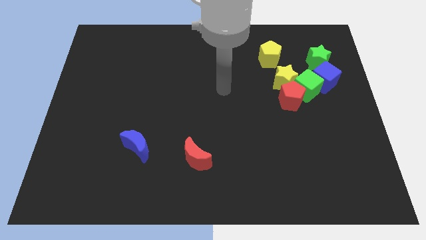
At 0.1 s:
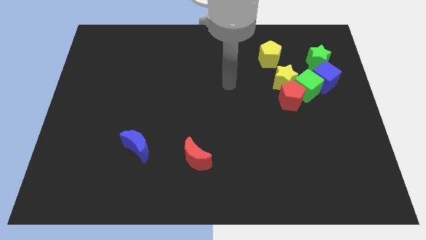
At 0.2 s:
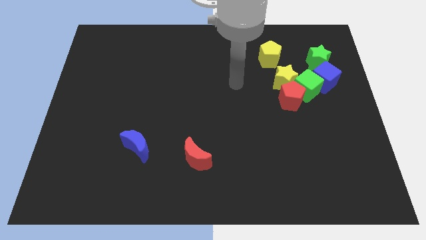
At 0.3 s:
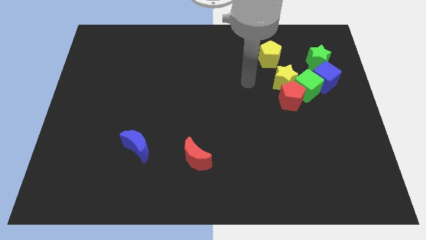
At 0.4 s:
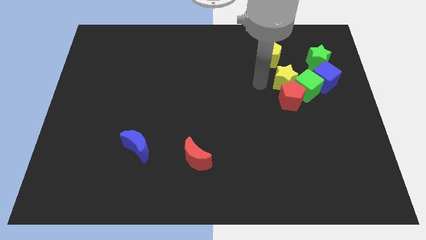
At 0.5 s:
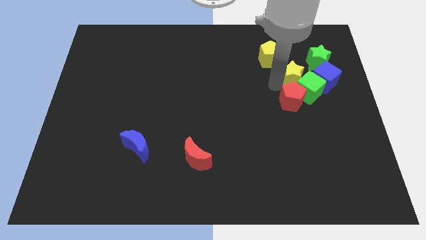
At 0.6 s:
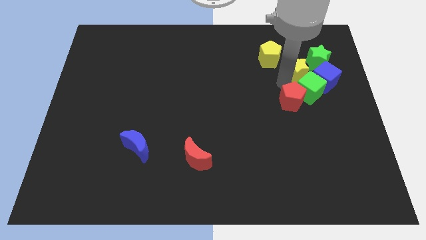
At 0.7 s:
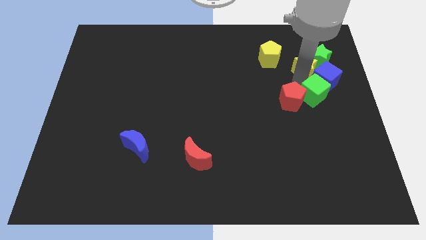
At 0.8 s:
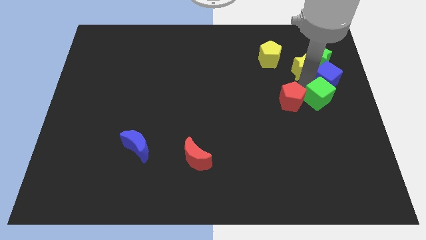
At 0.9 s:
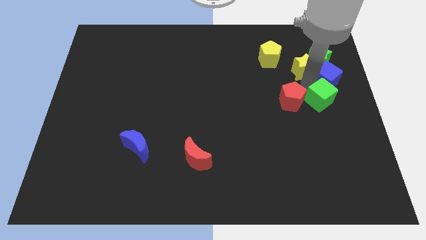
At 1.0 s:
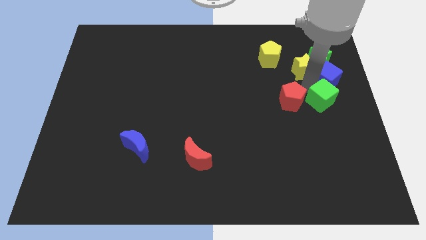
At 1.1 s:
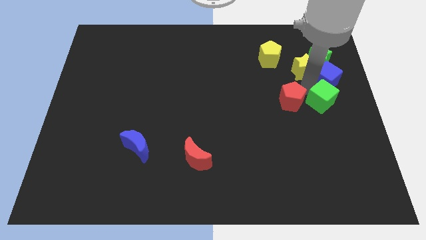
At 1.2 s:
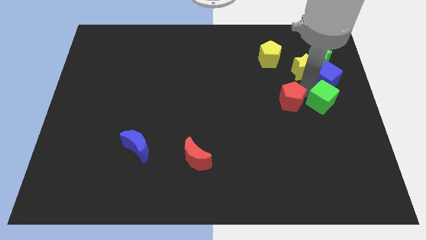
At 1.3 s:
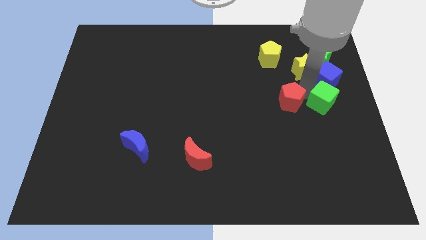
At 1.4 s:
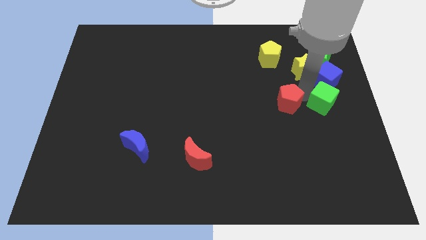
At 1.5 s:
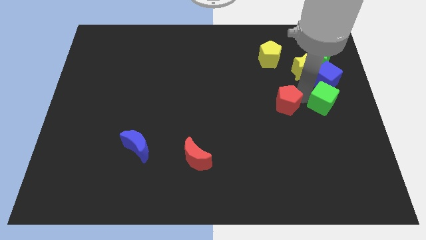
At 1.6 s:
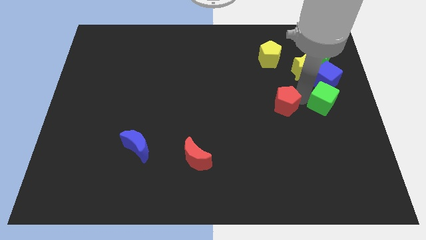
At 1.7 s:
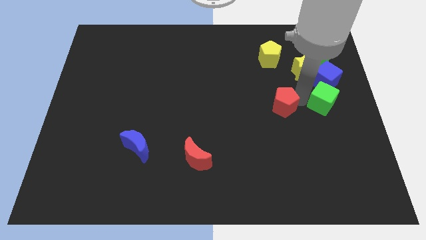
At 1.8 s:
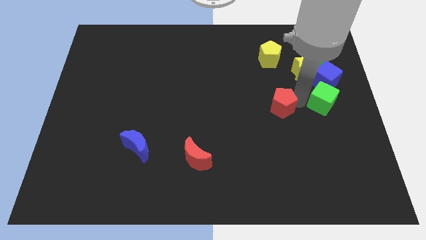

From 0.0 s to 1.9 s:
separate the red pentagon from the green cube and yellow star

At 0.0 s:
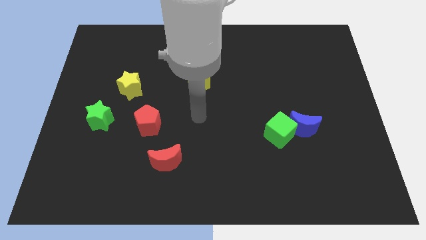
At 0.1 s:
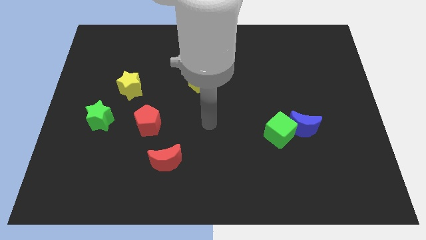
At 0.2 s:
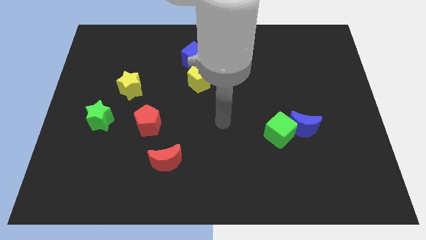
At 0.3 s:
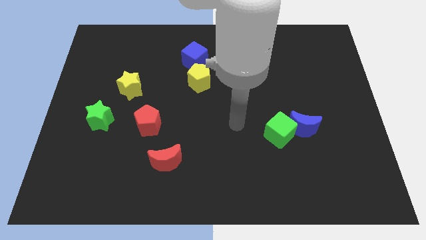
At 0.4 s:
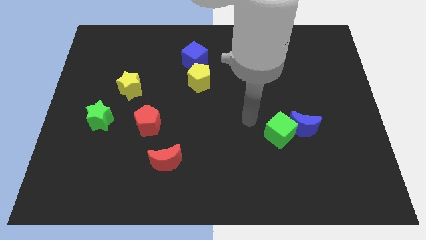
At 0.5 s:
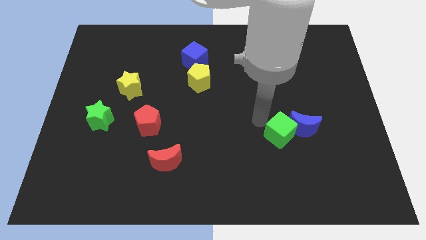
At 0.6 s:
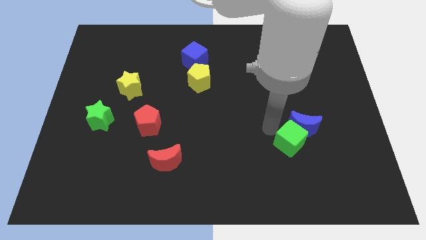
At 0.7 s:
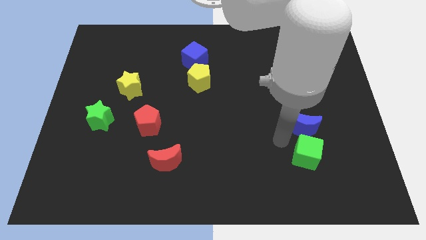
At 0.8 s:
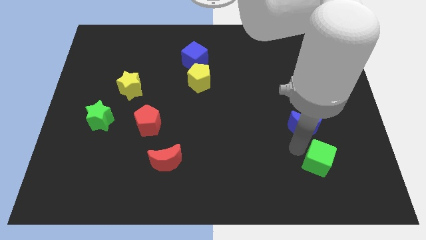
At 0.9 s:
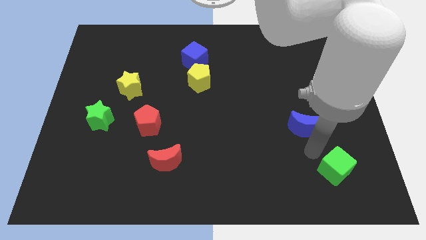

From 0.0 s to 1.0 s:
pull the blue moon apart from the green cube

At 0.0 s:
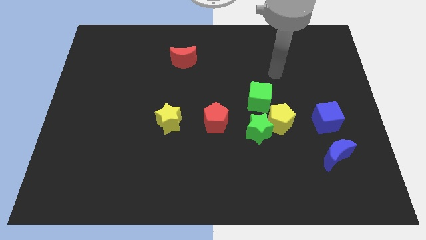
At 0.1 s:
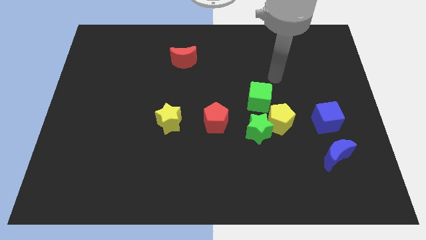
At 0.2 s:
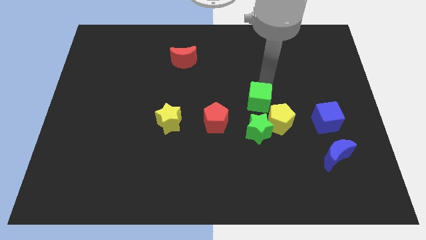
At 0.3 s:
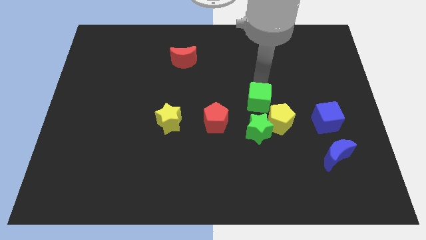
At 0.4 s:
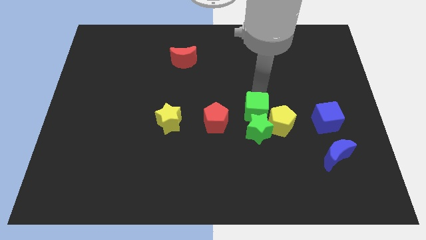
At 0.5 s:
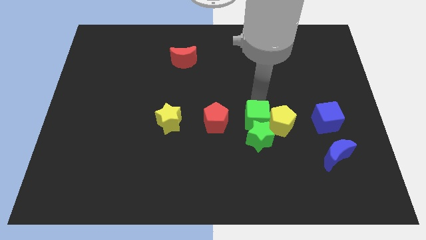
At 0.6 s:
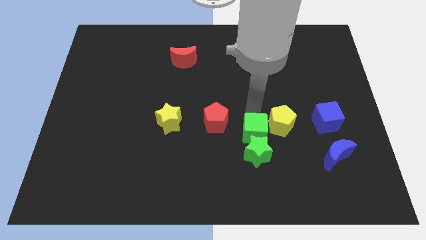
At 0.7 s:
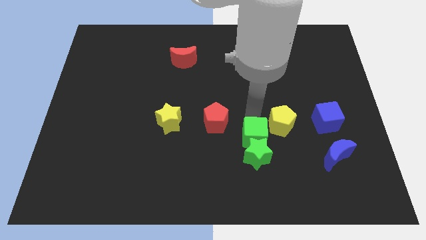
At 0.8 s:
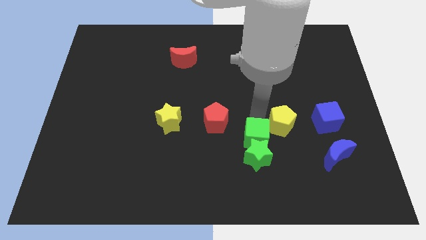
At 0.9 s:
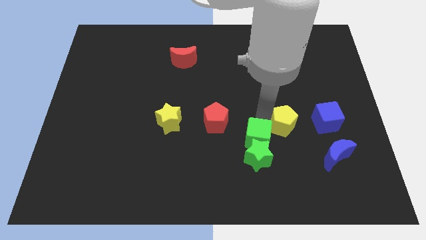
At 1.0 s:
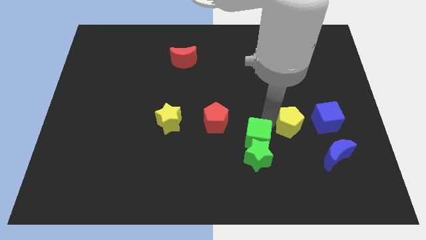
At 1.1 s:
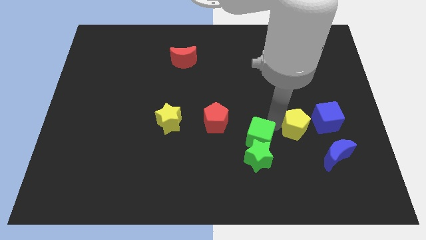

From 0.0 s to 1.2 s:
pull the yellow pentagon apart from the green star and green cube

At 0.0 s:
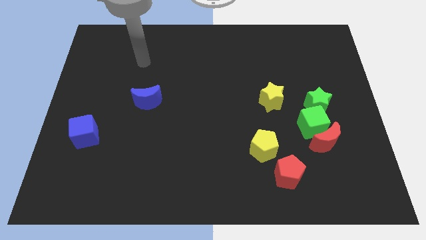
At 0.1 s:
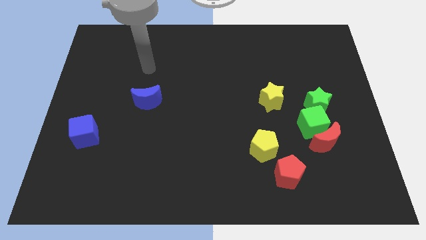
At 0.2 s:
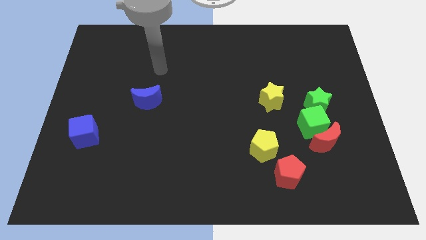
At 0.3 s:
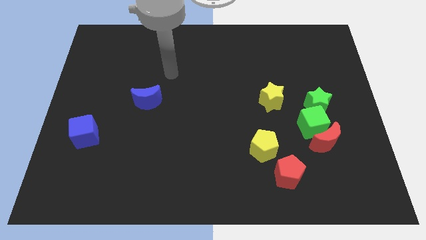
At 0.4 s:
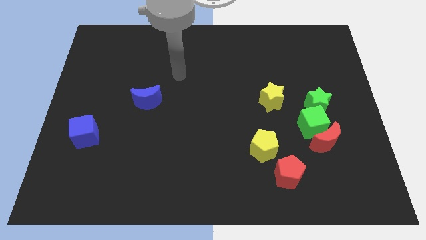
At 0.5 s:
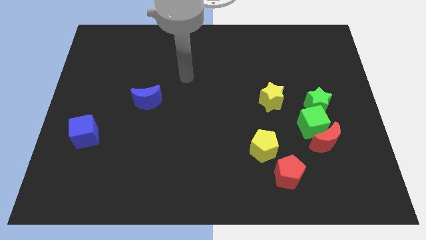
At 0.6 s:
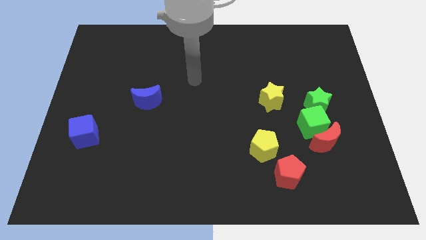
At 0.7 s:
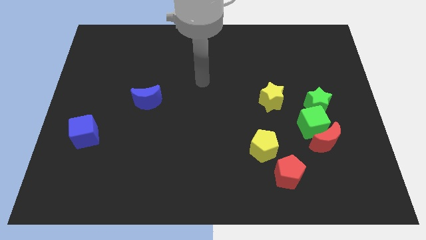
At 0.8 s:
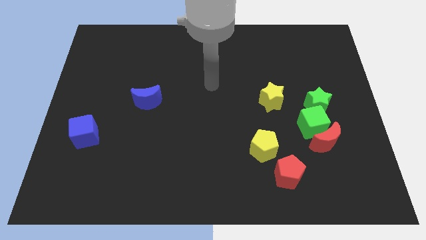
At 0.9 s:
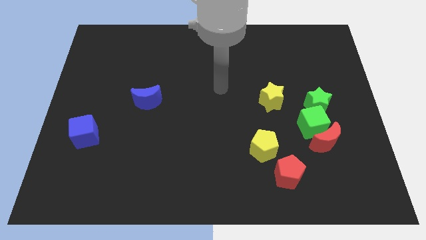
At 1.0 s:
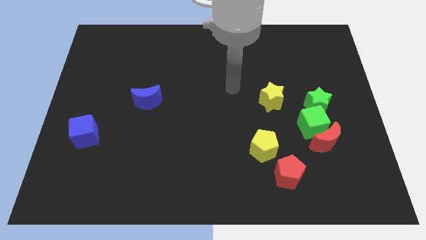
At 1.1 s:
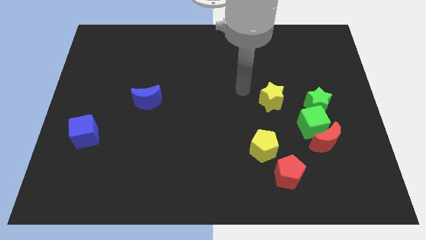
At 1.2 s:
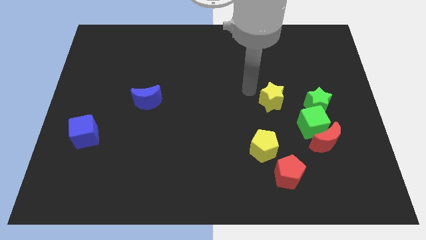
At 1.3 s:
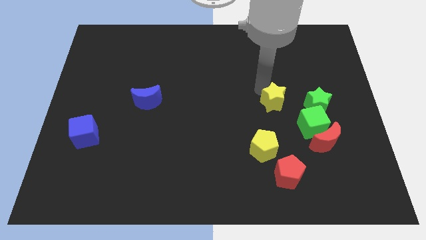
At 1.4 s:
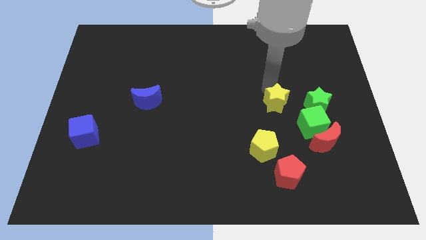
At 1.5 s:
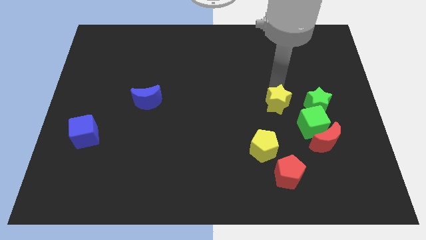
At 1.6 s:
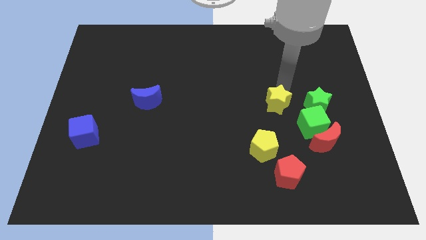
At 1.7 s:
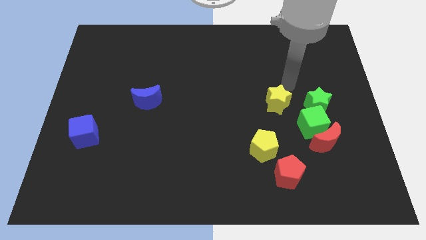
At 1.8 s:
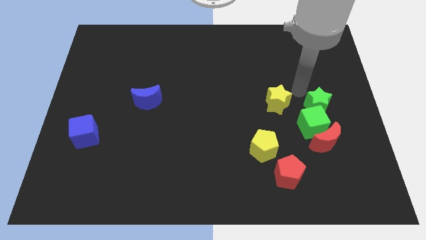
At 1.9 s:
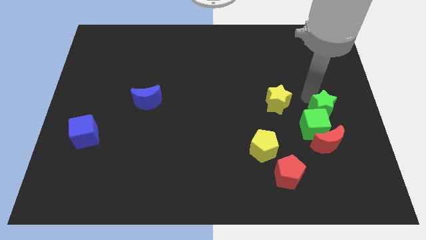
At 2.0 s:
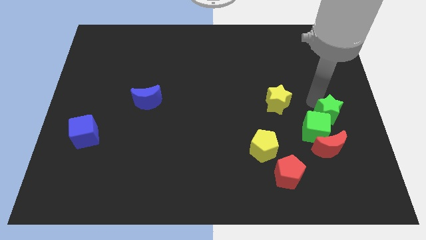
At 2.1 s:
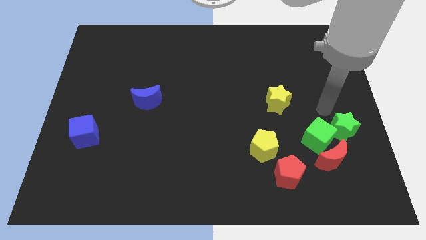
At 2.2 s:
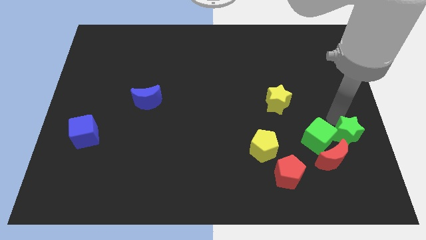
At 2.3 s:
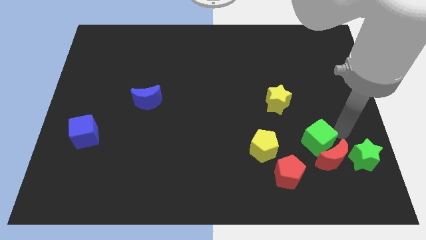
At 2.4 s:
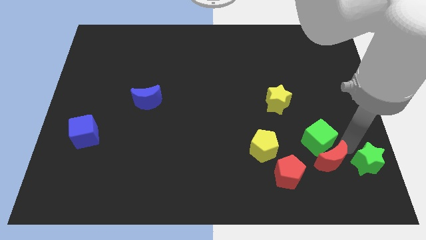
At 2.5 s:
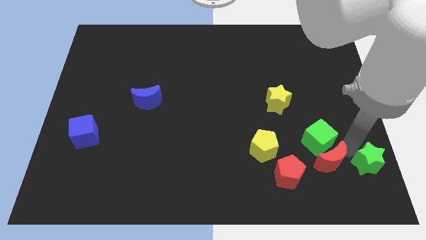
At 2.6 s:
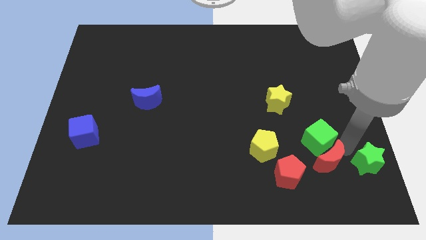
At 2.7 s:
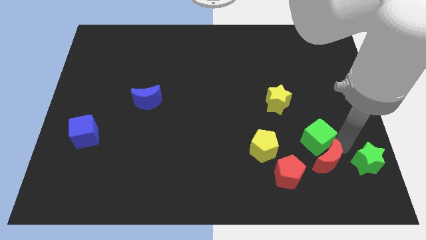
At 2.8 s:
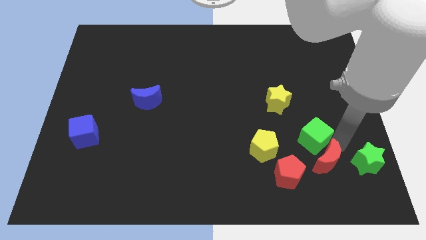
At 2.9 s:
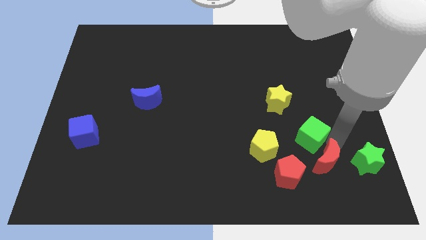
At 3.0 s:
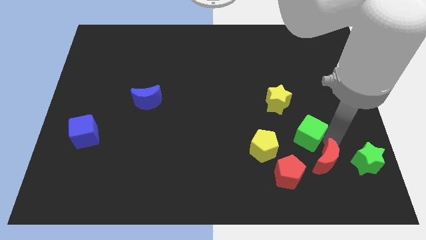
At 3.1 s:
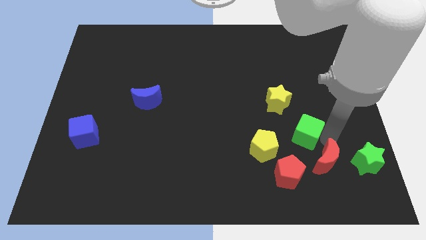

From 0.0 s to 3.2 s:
move the green cube away from the red moon and green star

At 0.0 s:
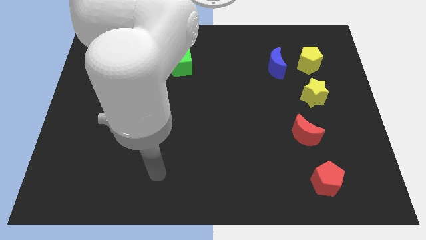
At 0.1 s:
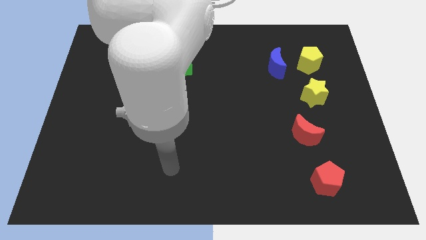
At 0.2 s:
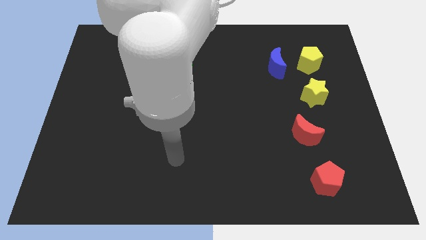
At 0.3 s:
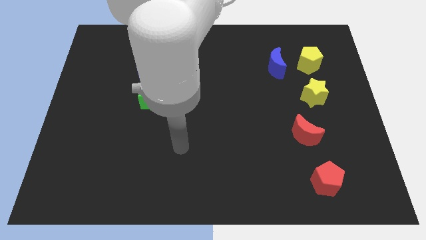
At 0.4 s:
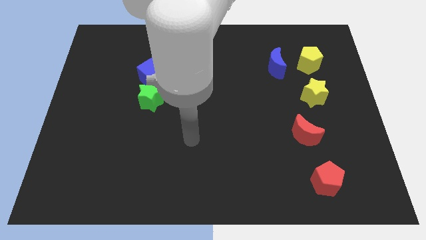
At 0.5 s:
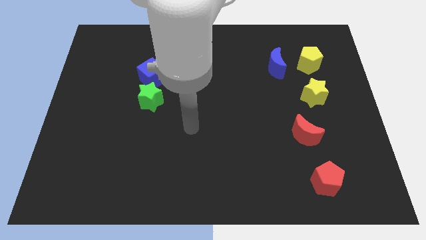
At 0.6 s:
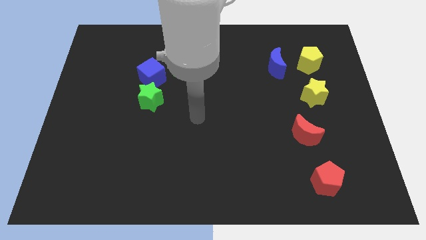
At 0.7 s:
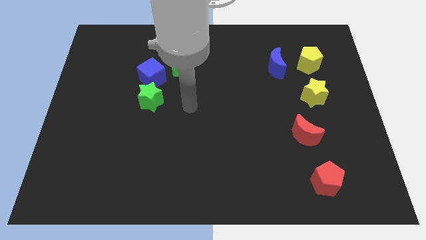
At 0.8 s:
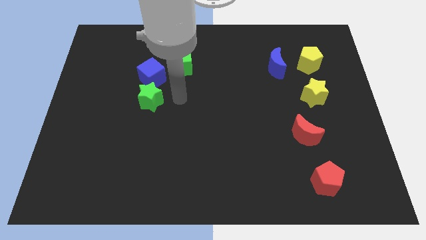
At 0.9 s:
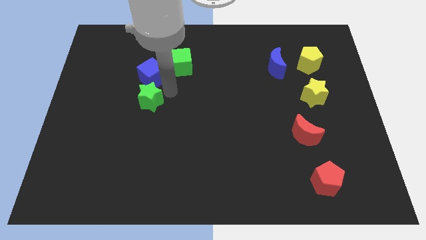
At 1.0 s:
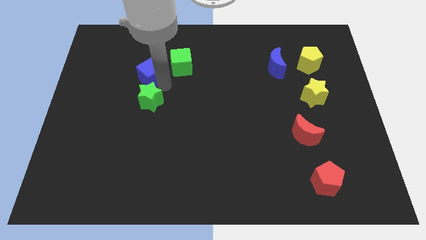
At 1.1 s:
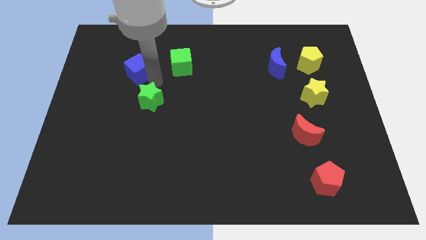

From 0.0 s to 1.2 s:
pull the green star apart from the blue cube

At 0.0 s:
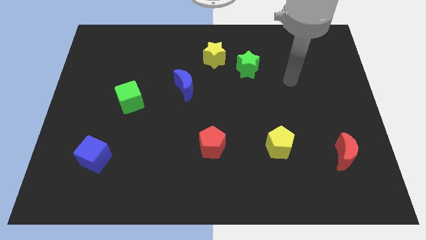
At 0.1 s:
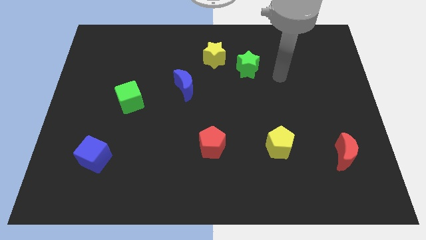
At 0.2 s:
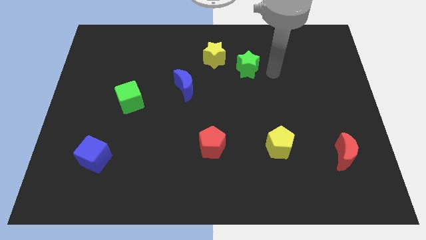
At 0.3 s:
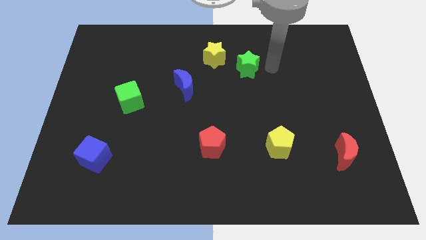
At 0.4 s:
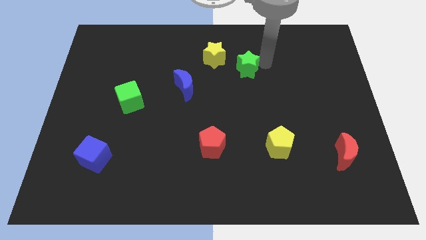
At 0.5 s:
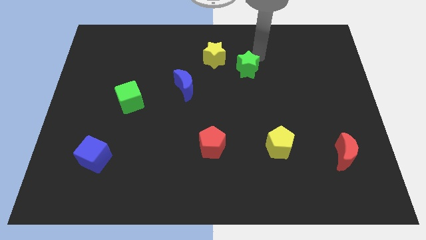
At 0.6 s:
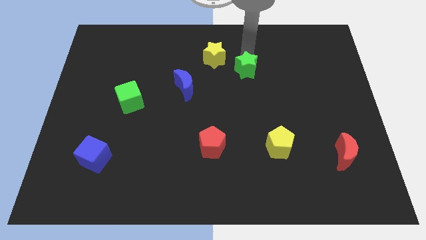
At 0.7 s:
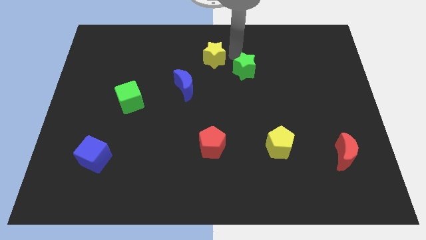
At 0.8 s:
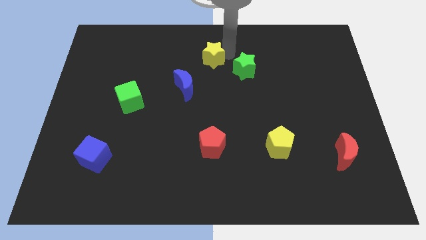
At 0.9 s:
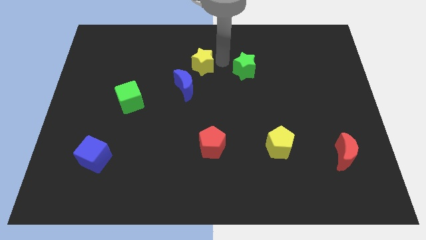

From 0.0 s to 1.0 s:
pull the green star apart from the yellow star
